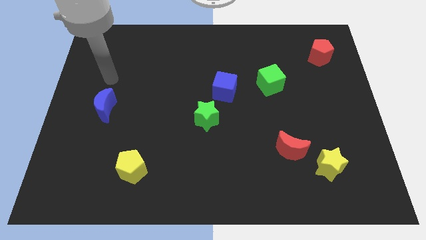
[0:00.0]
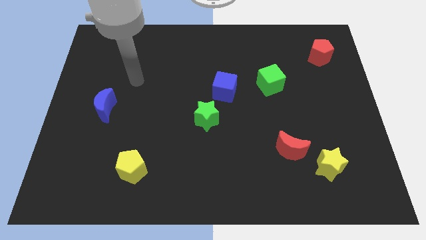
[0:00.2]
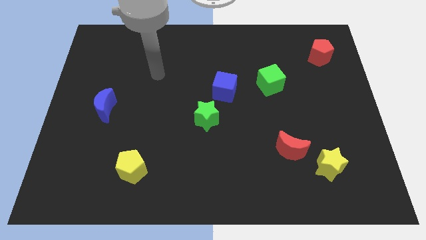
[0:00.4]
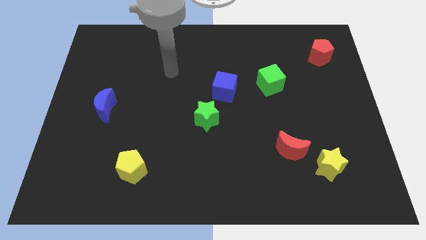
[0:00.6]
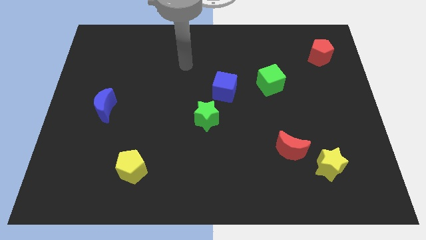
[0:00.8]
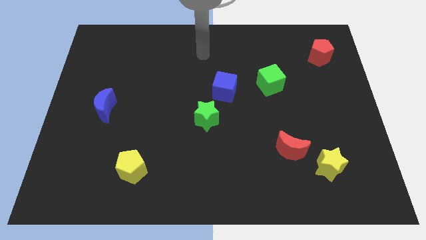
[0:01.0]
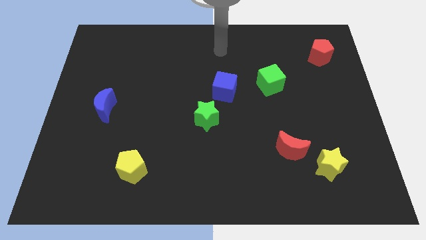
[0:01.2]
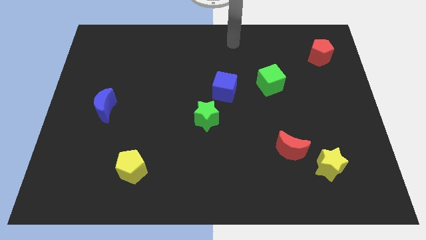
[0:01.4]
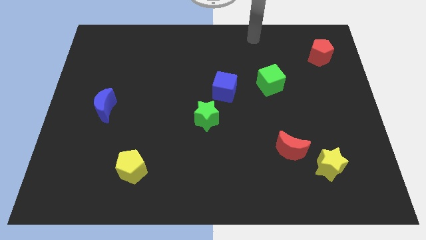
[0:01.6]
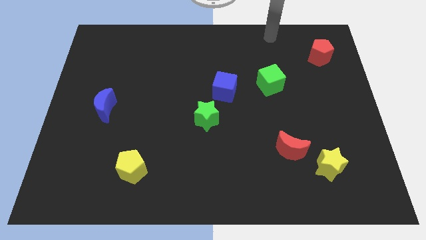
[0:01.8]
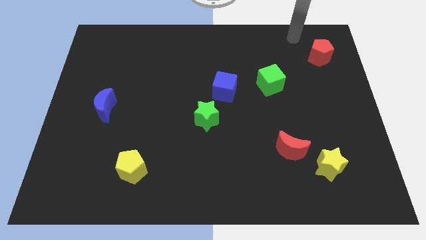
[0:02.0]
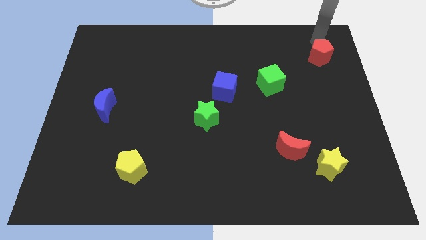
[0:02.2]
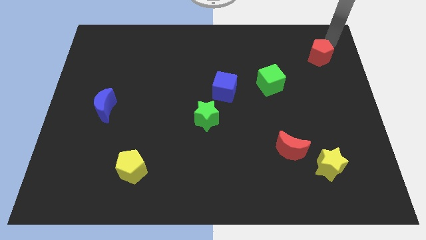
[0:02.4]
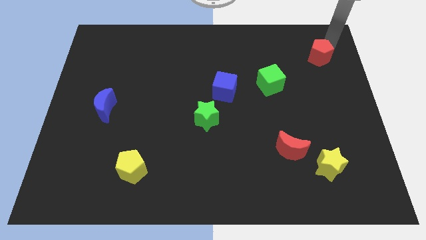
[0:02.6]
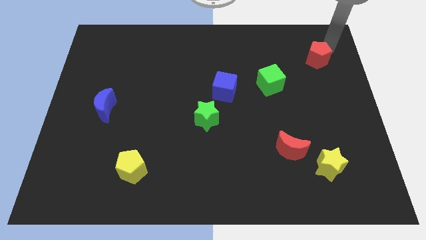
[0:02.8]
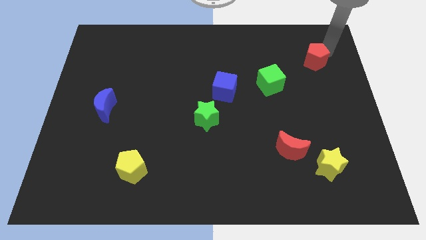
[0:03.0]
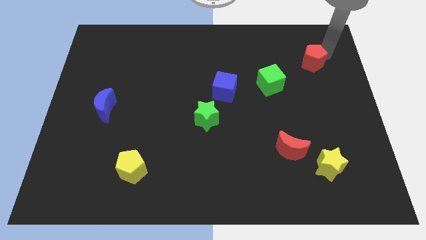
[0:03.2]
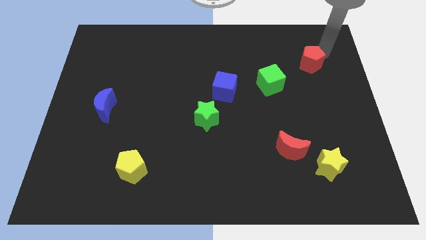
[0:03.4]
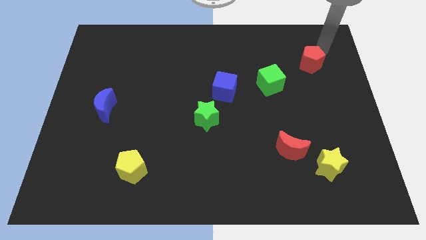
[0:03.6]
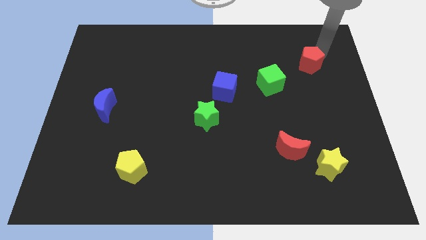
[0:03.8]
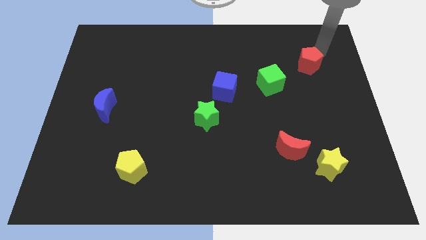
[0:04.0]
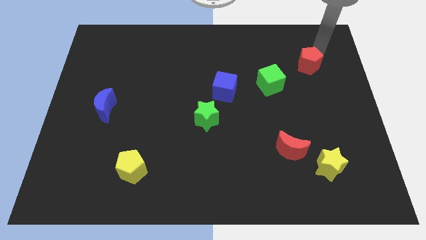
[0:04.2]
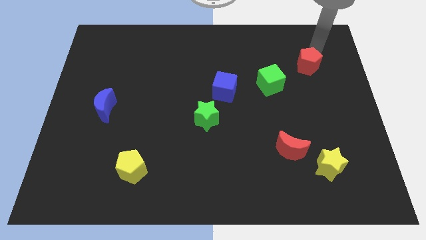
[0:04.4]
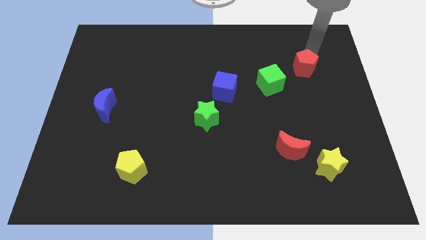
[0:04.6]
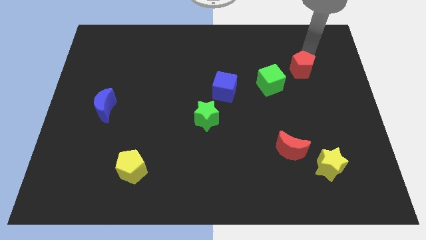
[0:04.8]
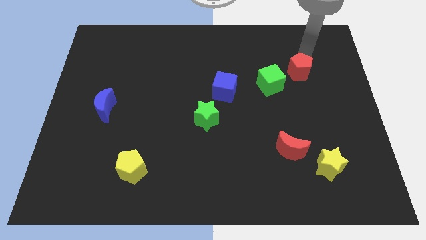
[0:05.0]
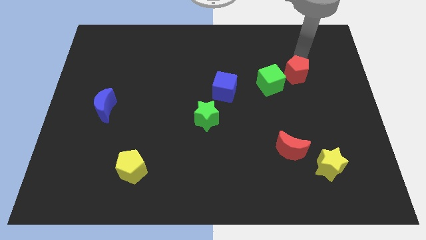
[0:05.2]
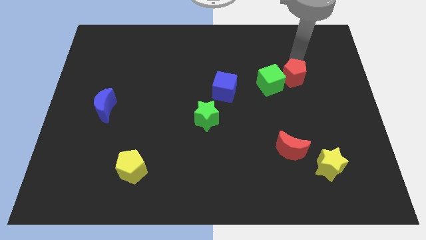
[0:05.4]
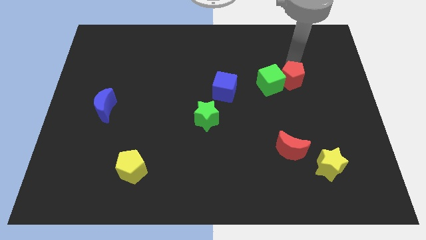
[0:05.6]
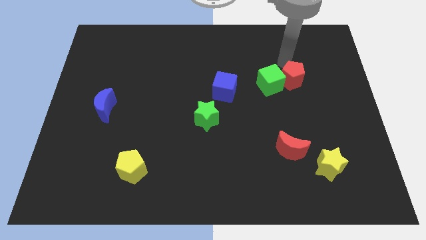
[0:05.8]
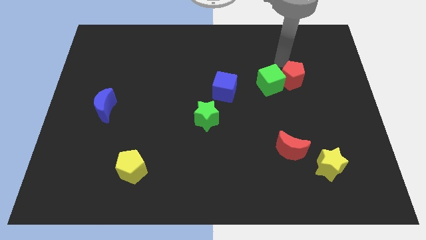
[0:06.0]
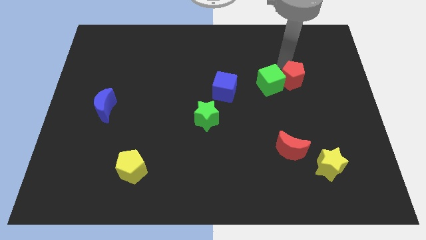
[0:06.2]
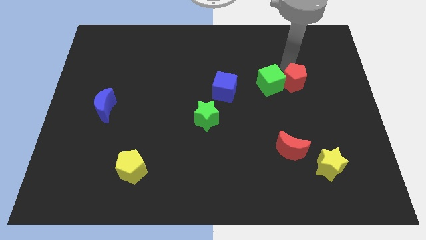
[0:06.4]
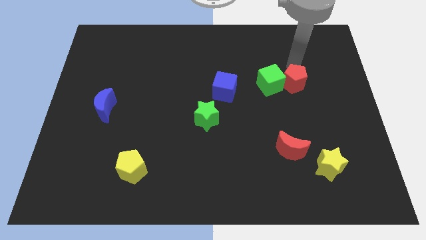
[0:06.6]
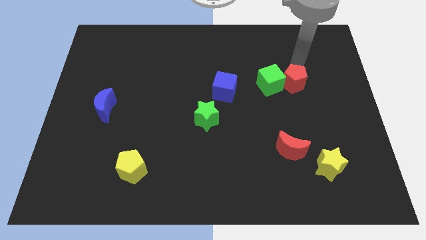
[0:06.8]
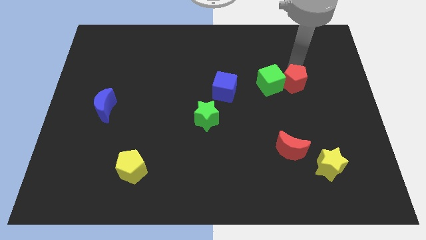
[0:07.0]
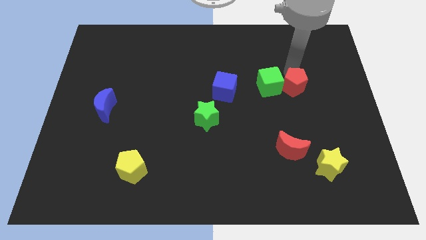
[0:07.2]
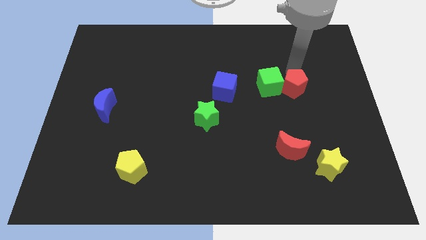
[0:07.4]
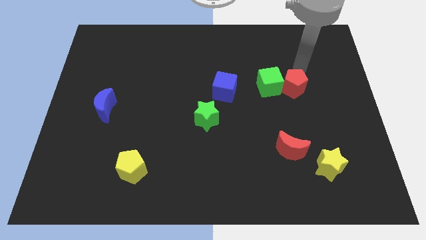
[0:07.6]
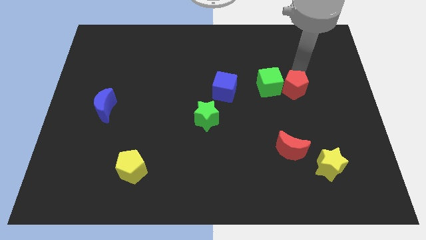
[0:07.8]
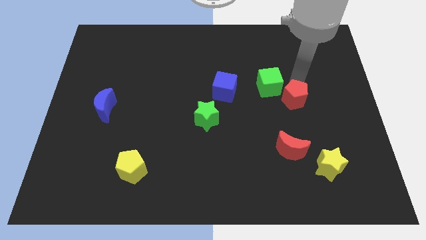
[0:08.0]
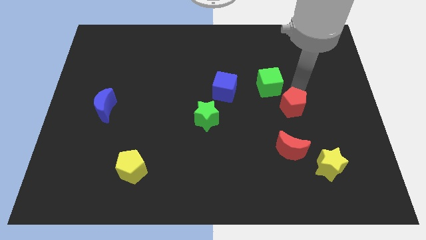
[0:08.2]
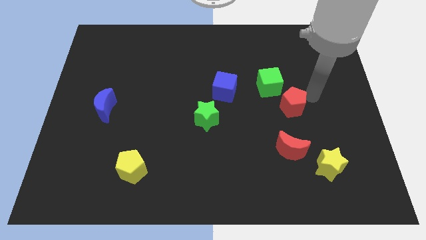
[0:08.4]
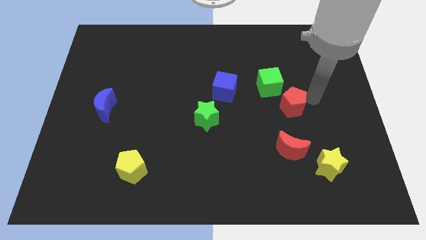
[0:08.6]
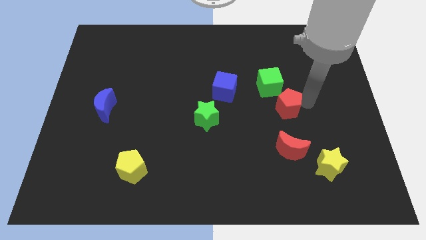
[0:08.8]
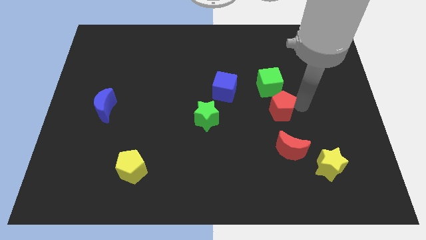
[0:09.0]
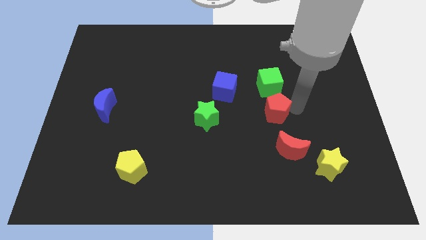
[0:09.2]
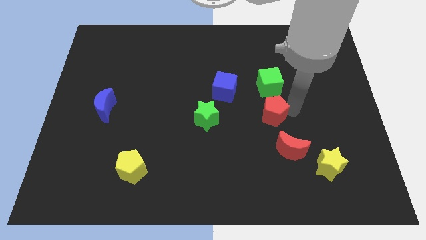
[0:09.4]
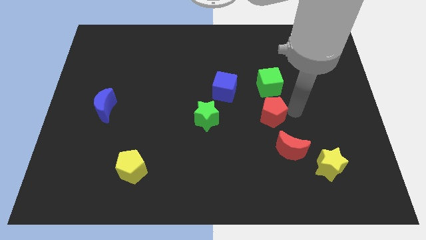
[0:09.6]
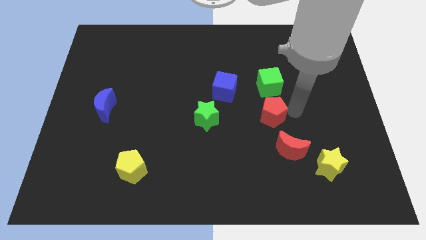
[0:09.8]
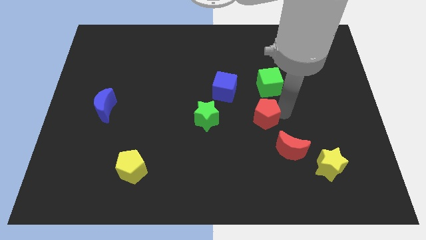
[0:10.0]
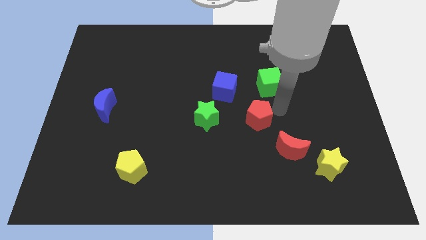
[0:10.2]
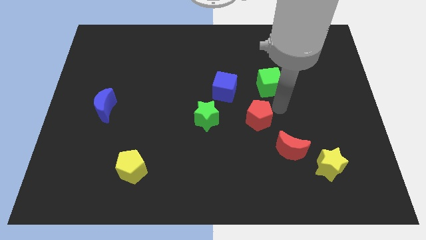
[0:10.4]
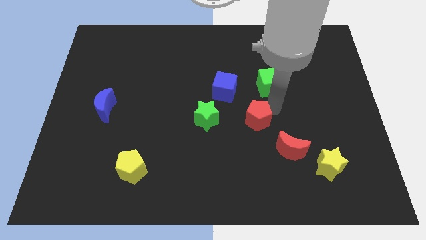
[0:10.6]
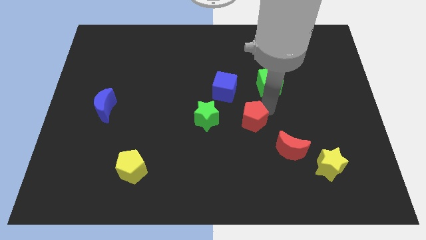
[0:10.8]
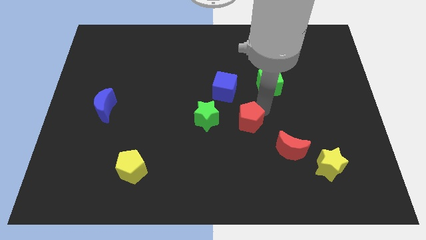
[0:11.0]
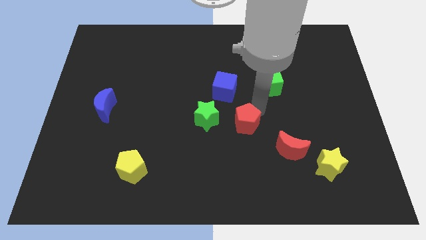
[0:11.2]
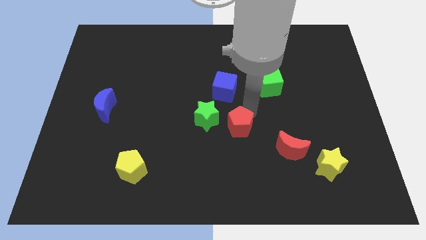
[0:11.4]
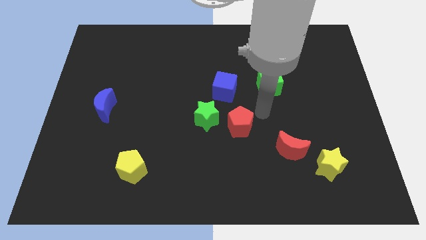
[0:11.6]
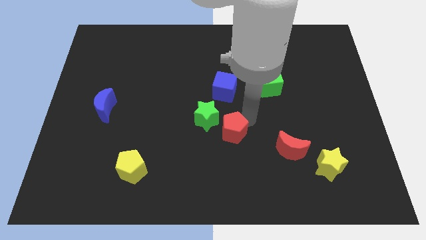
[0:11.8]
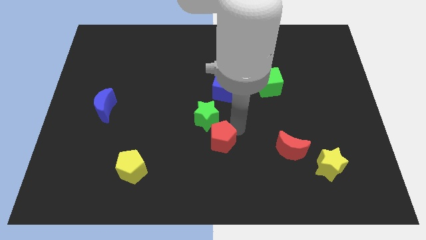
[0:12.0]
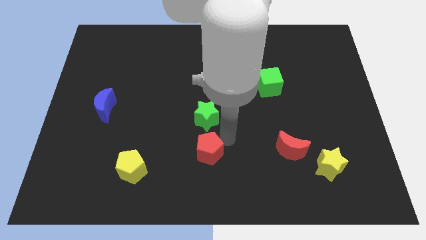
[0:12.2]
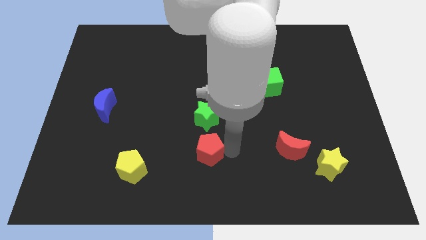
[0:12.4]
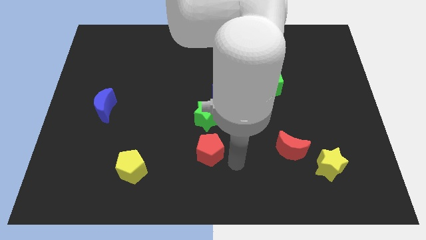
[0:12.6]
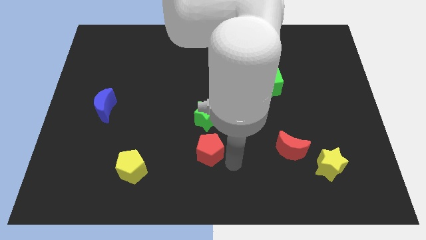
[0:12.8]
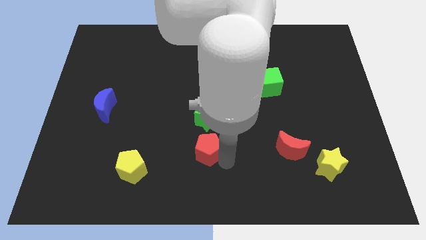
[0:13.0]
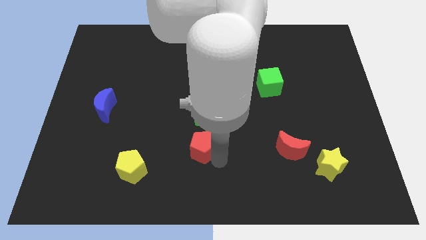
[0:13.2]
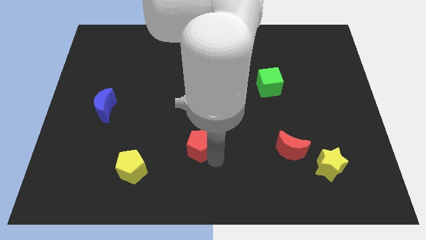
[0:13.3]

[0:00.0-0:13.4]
push the red pentagon to the bottom left of the green star
